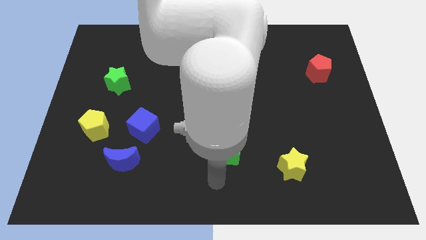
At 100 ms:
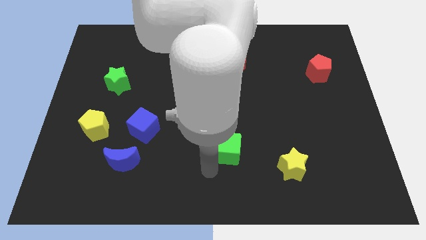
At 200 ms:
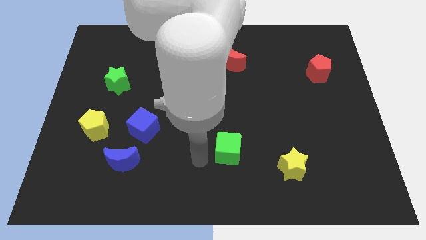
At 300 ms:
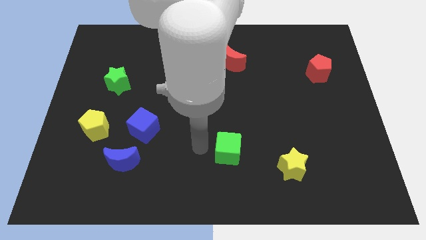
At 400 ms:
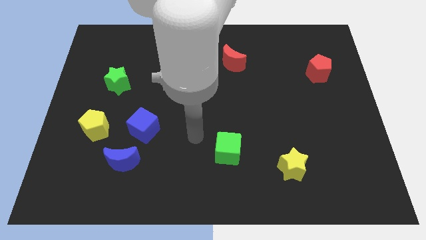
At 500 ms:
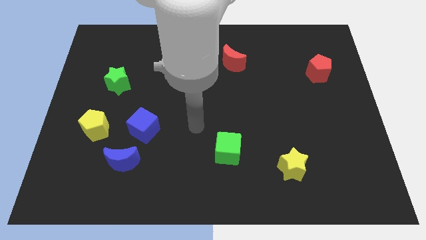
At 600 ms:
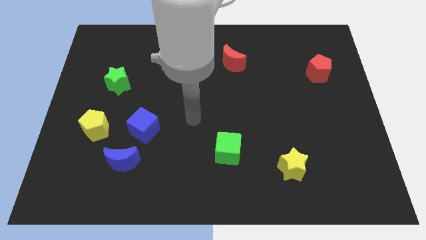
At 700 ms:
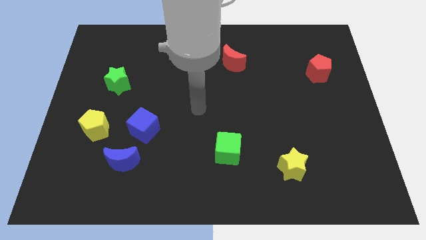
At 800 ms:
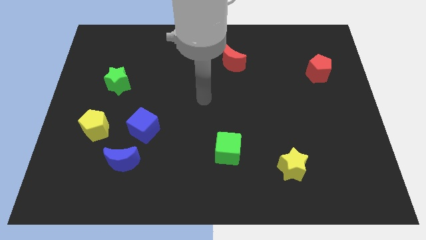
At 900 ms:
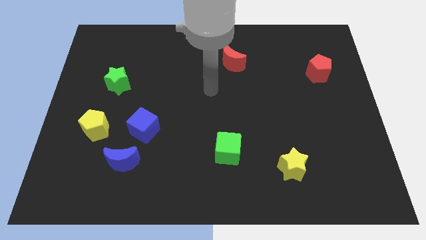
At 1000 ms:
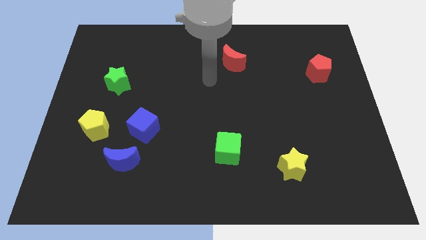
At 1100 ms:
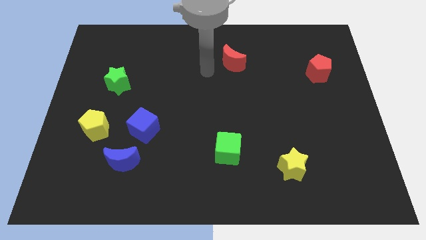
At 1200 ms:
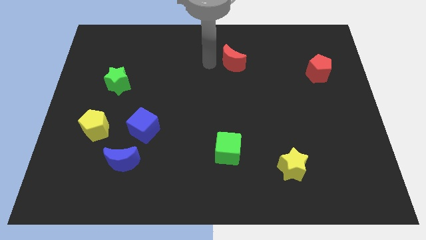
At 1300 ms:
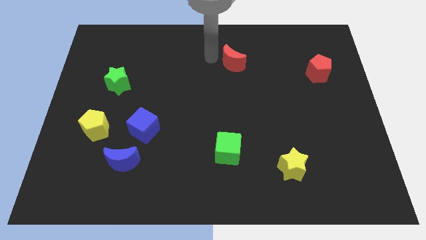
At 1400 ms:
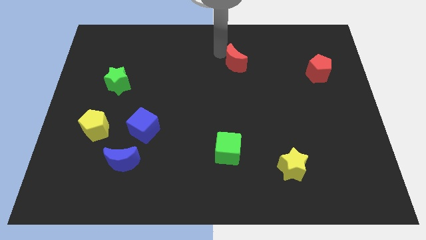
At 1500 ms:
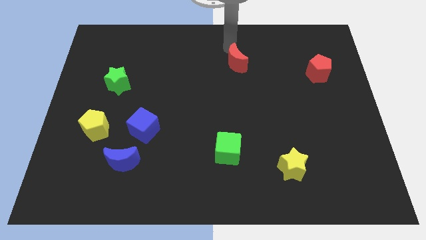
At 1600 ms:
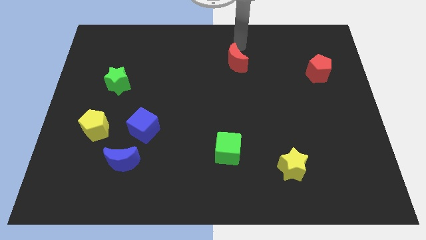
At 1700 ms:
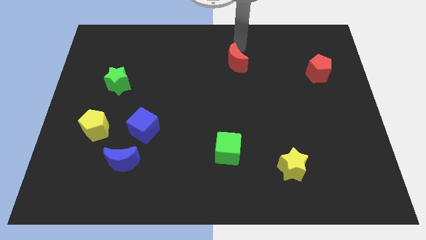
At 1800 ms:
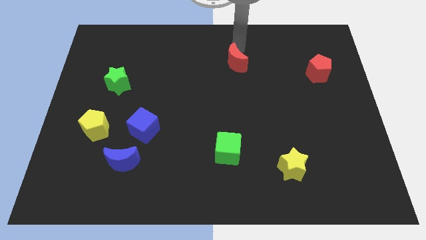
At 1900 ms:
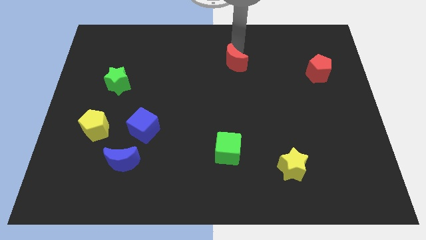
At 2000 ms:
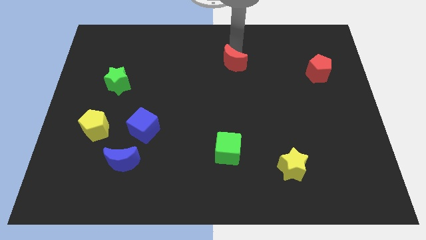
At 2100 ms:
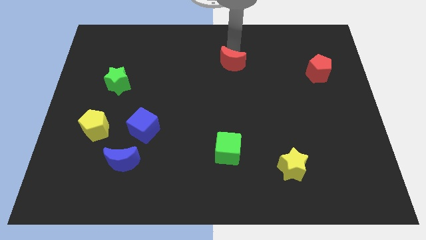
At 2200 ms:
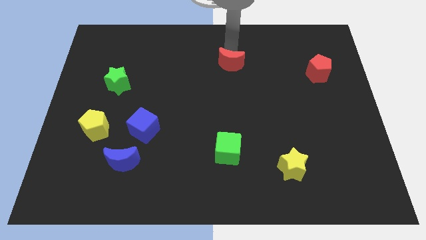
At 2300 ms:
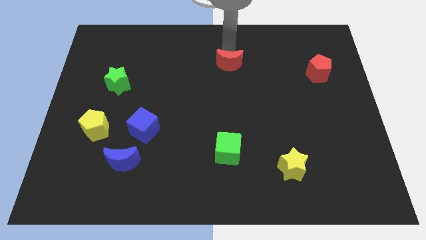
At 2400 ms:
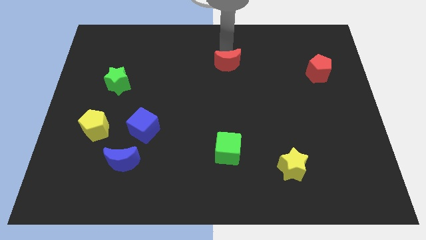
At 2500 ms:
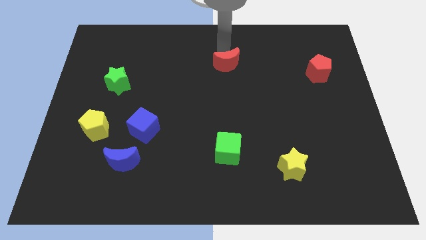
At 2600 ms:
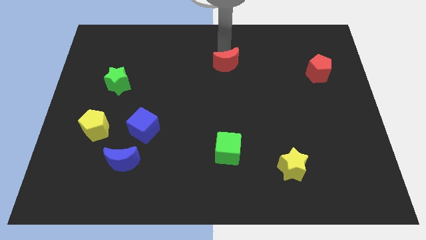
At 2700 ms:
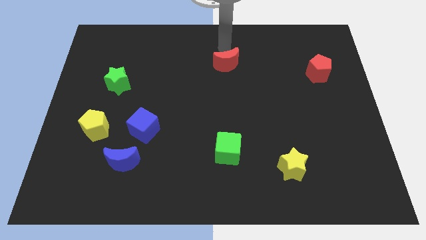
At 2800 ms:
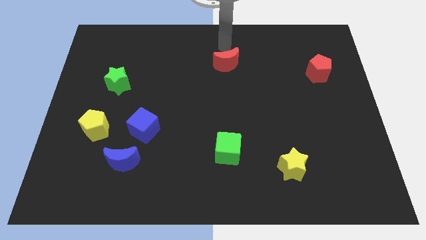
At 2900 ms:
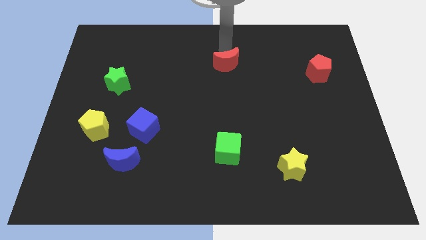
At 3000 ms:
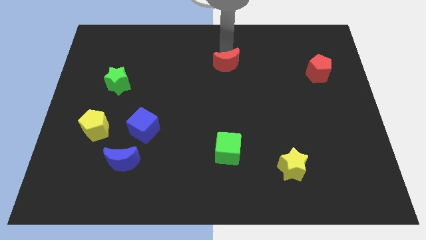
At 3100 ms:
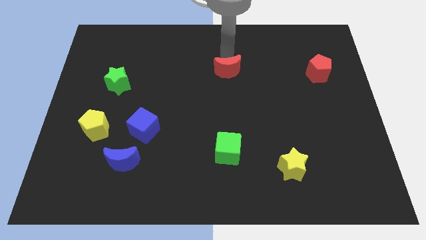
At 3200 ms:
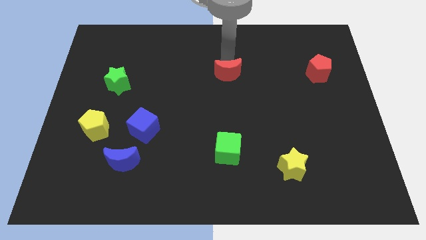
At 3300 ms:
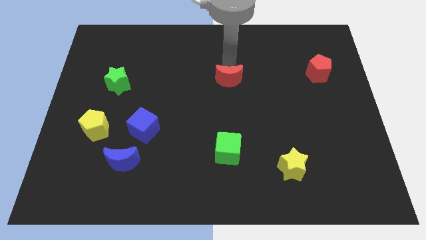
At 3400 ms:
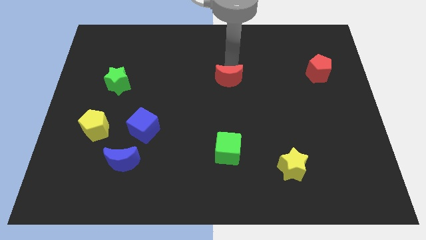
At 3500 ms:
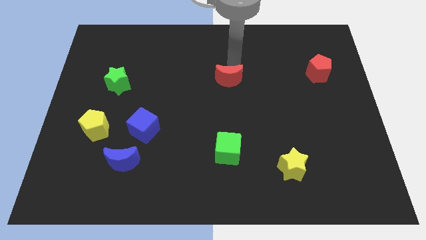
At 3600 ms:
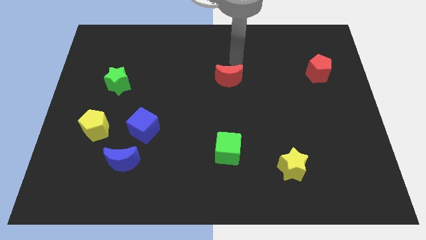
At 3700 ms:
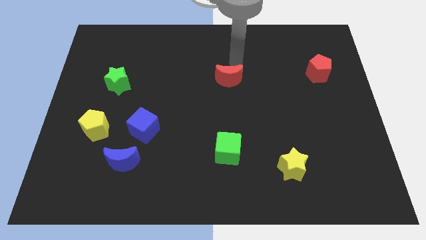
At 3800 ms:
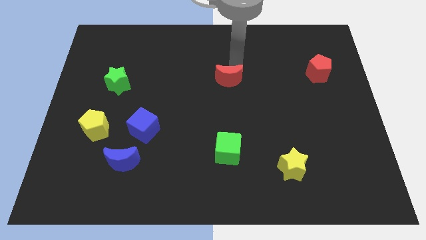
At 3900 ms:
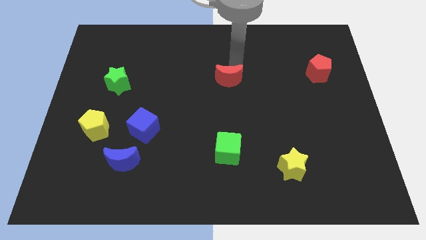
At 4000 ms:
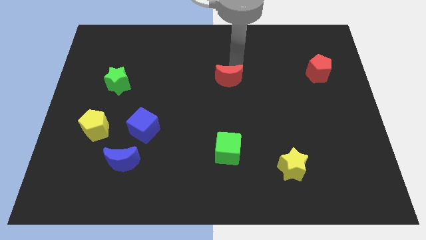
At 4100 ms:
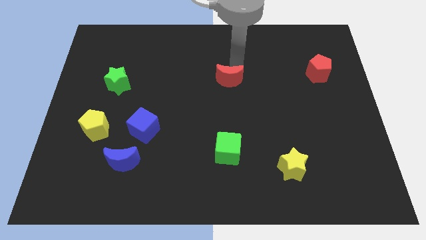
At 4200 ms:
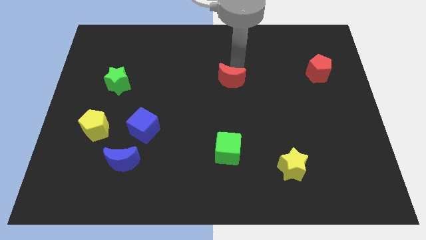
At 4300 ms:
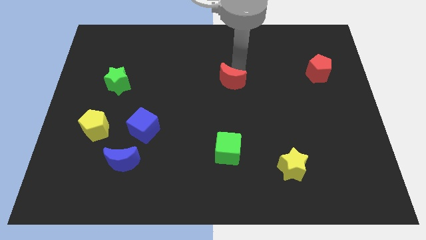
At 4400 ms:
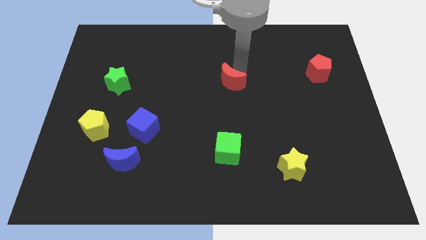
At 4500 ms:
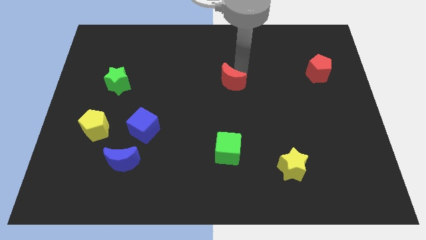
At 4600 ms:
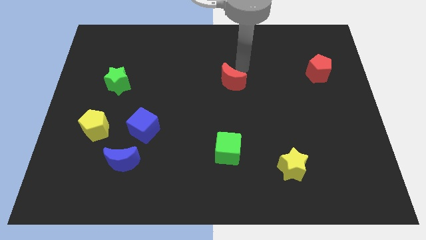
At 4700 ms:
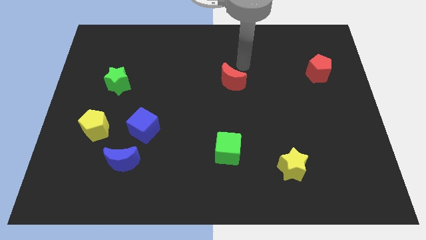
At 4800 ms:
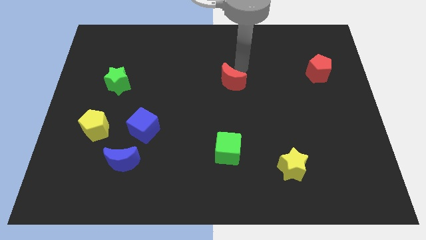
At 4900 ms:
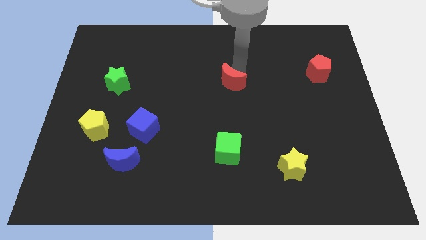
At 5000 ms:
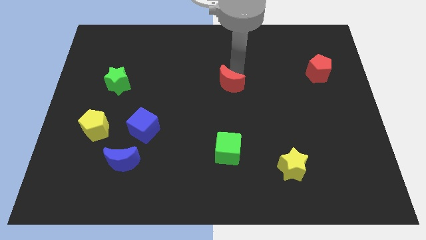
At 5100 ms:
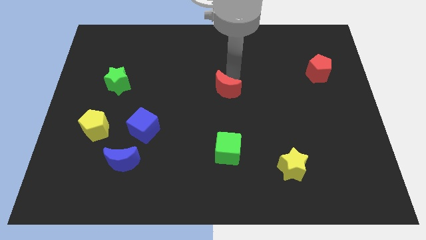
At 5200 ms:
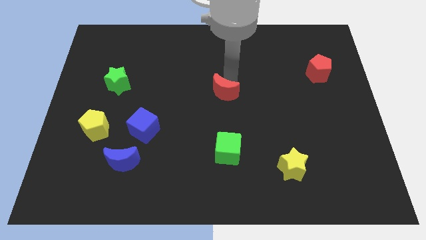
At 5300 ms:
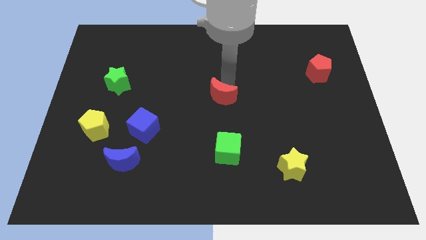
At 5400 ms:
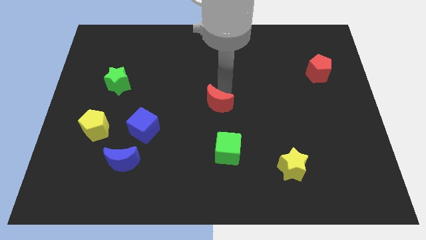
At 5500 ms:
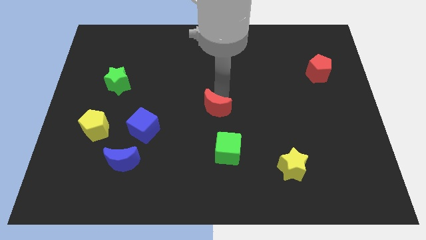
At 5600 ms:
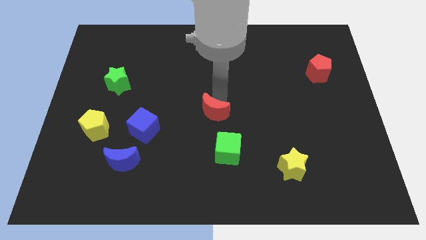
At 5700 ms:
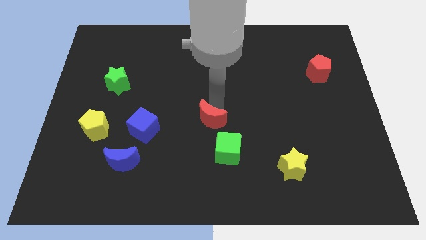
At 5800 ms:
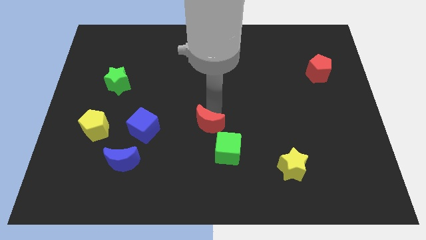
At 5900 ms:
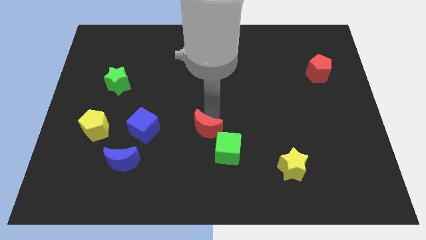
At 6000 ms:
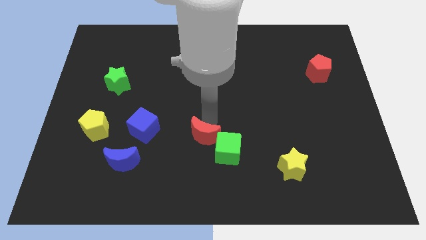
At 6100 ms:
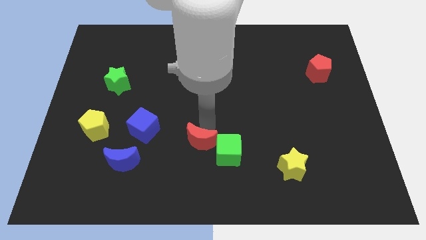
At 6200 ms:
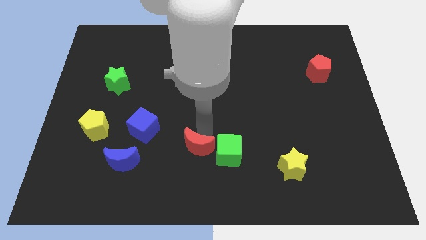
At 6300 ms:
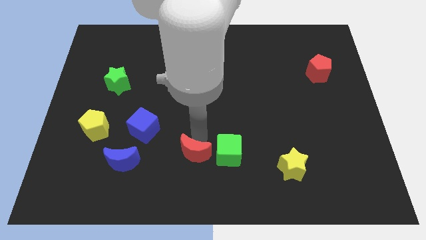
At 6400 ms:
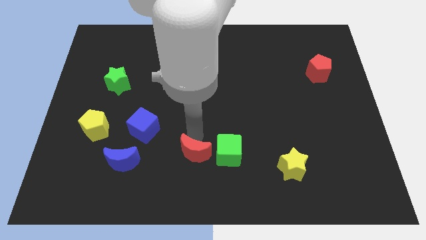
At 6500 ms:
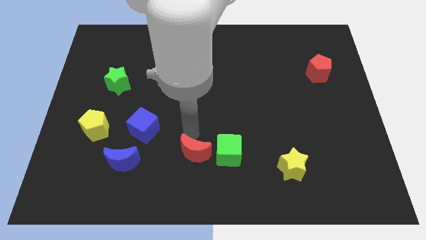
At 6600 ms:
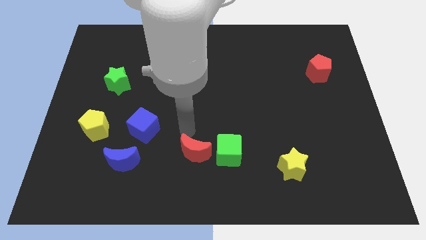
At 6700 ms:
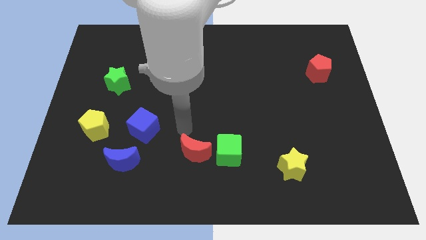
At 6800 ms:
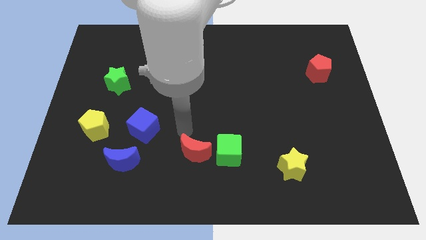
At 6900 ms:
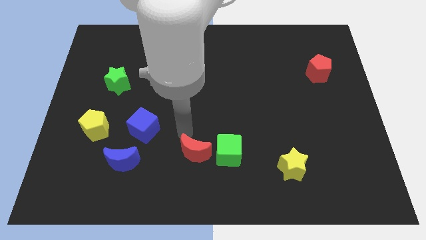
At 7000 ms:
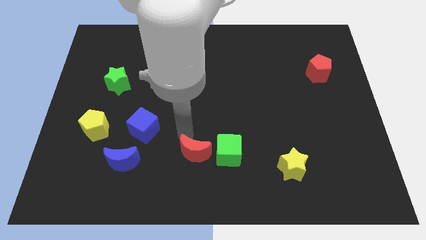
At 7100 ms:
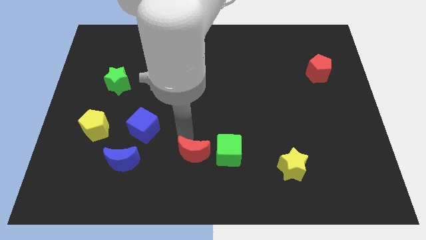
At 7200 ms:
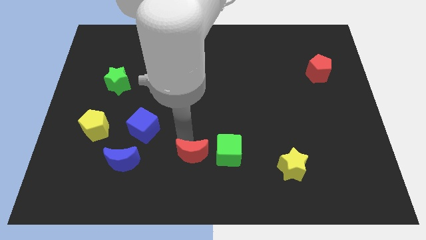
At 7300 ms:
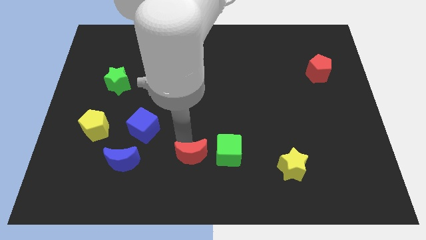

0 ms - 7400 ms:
put the red moon to the bottom
